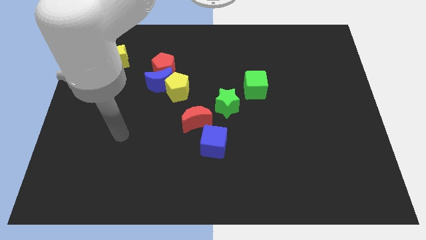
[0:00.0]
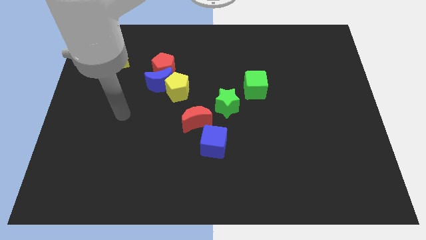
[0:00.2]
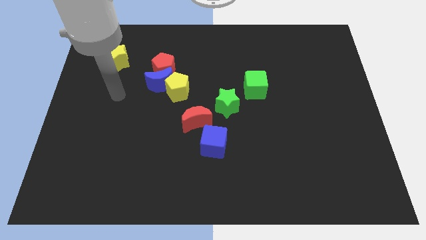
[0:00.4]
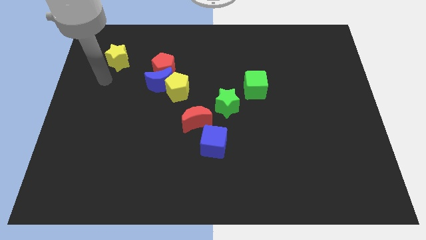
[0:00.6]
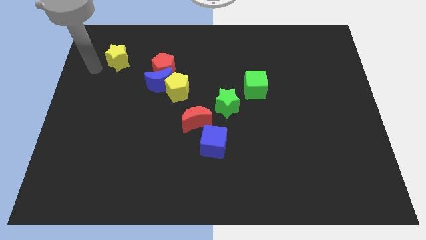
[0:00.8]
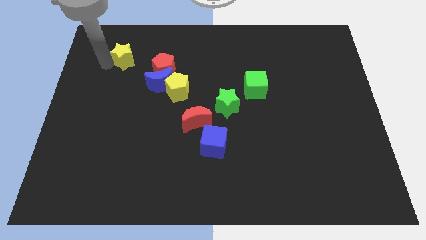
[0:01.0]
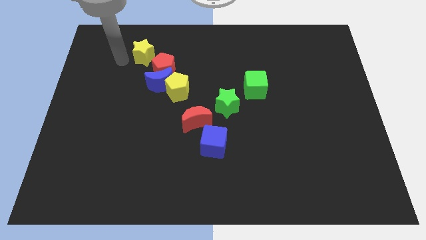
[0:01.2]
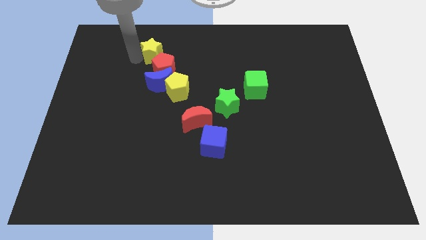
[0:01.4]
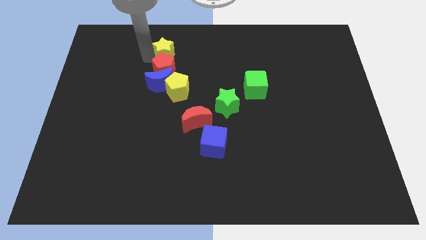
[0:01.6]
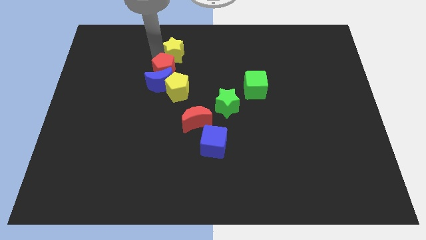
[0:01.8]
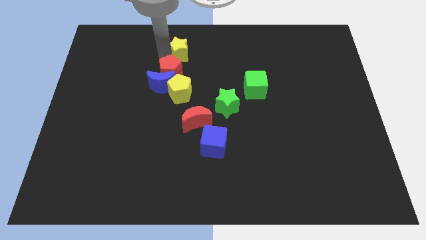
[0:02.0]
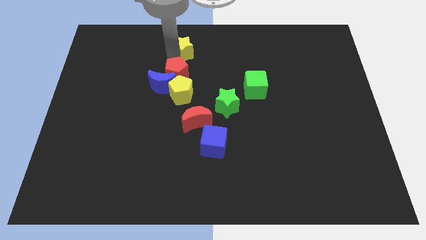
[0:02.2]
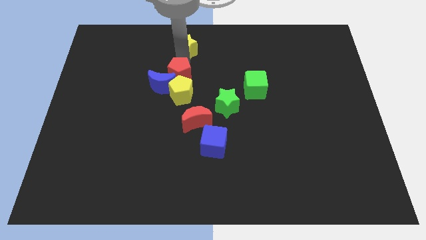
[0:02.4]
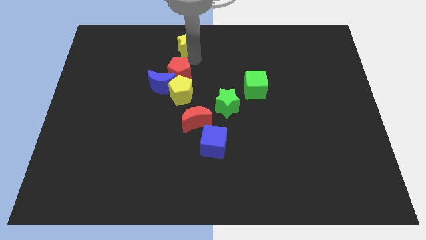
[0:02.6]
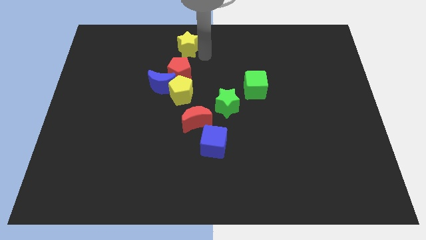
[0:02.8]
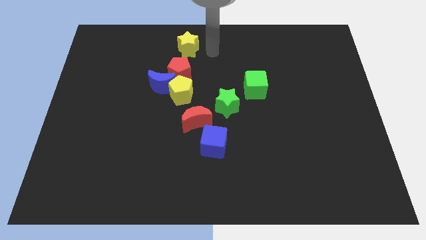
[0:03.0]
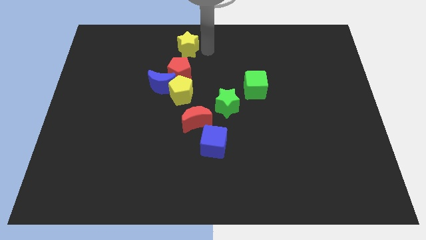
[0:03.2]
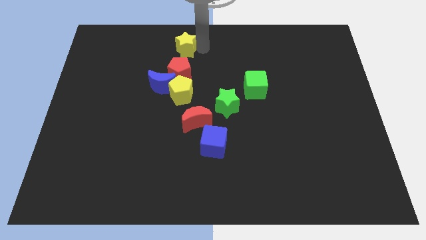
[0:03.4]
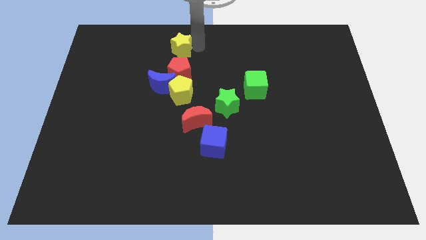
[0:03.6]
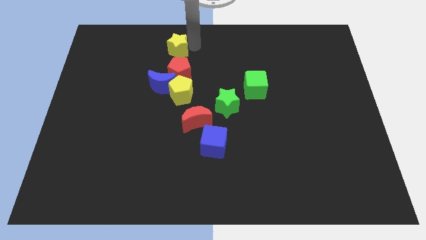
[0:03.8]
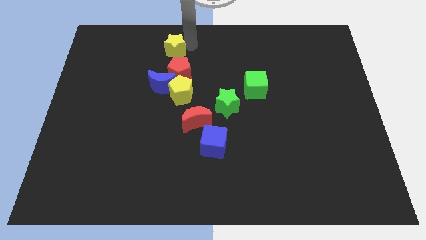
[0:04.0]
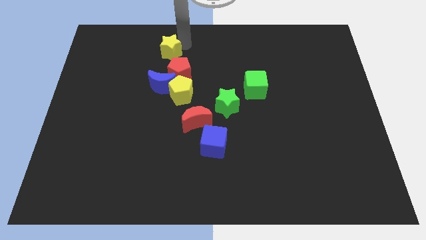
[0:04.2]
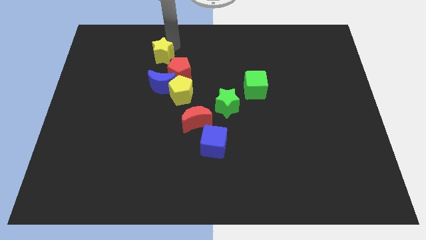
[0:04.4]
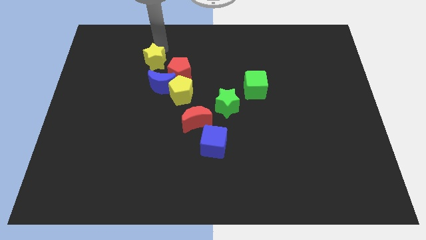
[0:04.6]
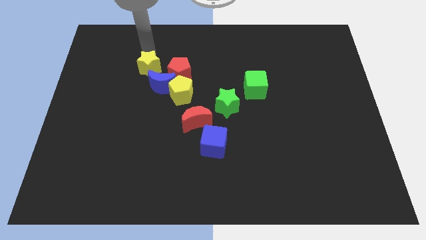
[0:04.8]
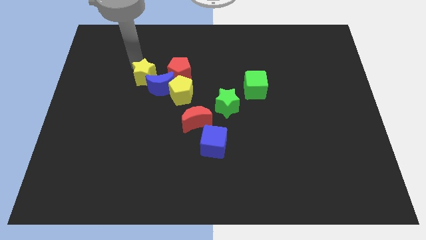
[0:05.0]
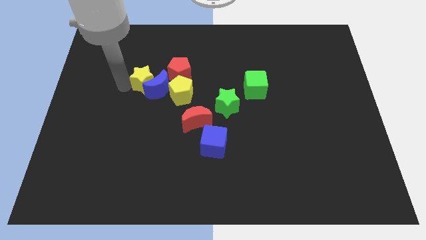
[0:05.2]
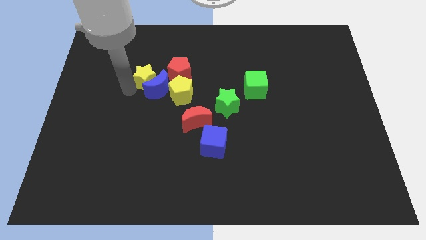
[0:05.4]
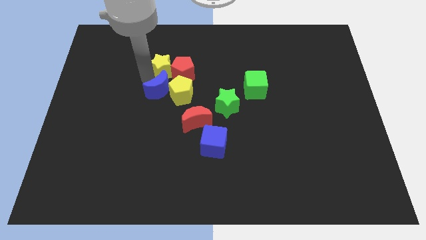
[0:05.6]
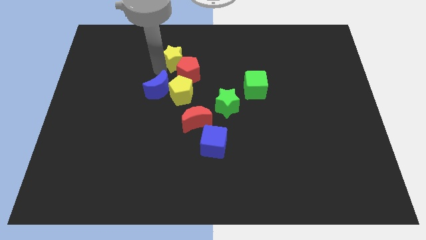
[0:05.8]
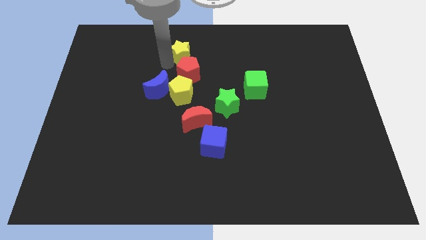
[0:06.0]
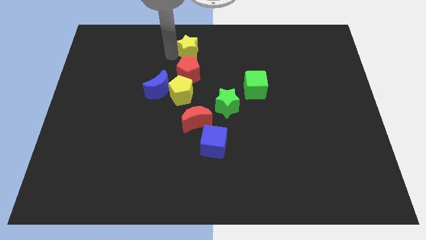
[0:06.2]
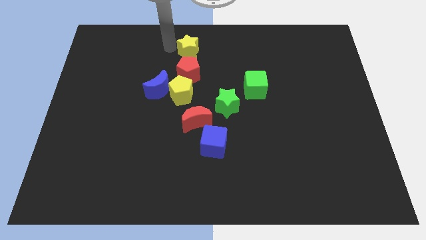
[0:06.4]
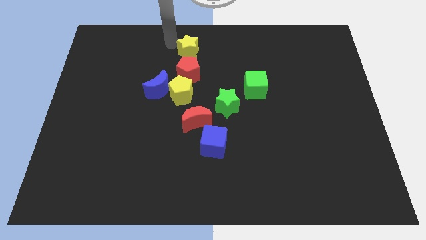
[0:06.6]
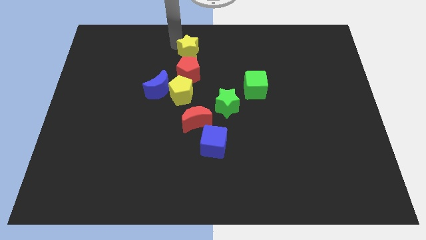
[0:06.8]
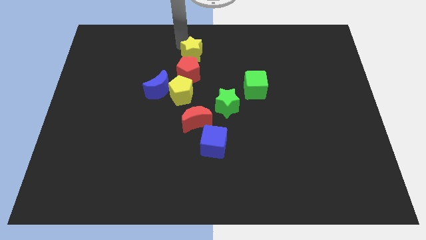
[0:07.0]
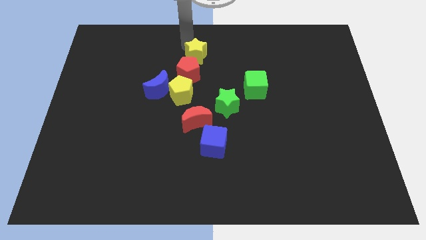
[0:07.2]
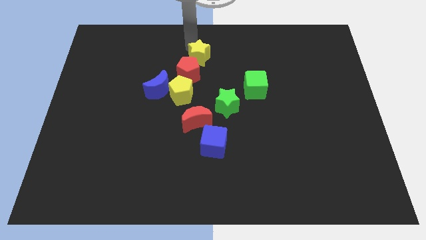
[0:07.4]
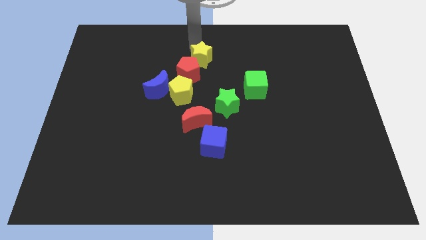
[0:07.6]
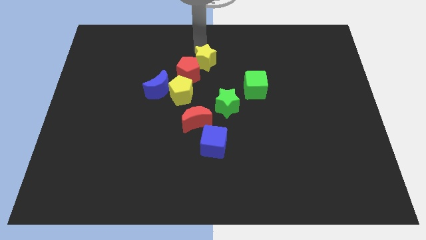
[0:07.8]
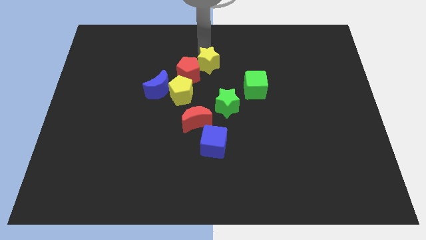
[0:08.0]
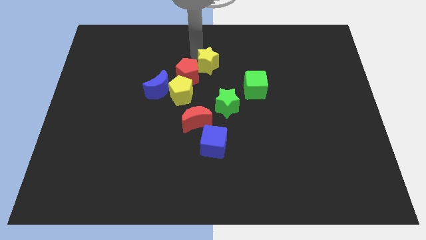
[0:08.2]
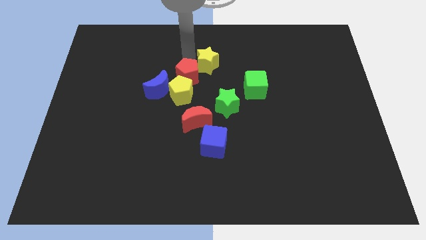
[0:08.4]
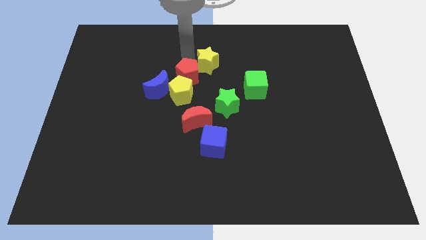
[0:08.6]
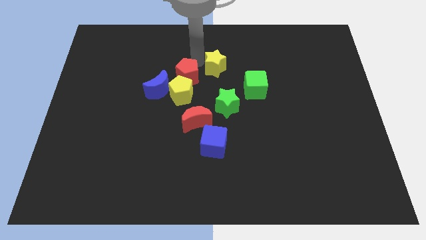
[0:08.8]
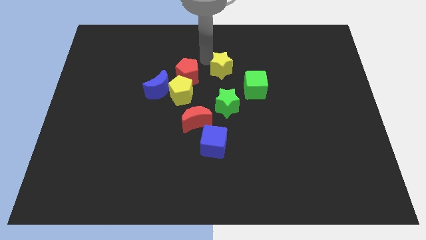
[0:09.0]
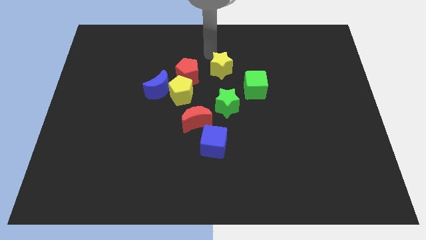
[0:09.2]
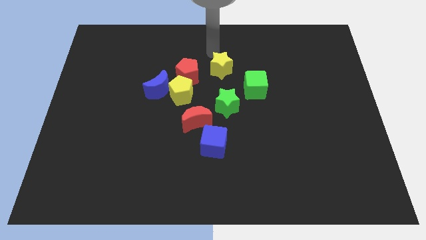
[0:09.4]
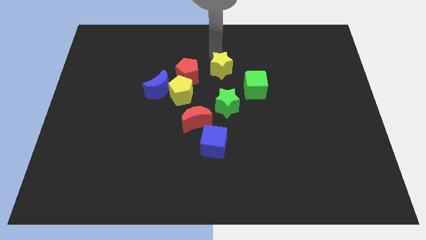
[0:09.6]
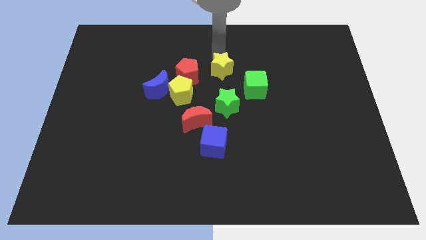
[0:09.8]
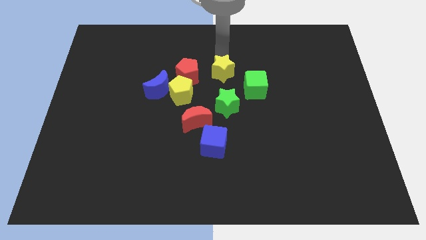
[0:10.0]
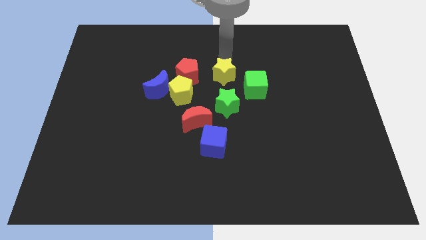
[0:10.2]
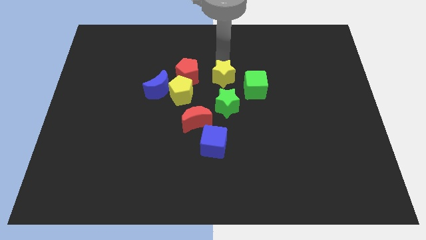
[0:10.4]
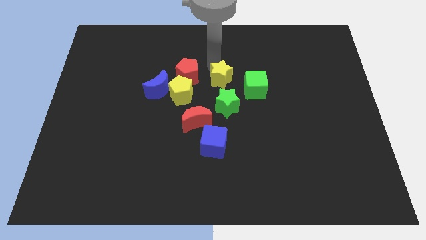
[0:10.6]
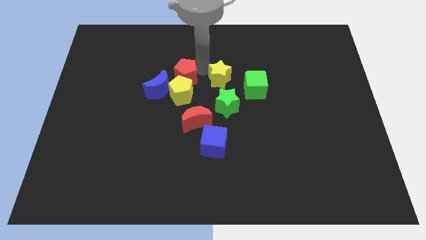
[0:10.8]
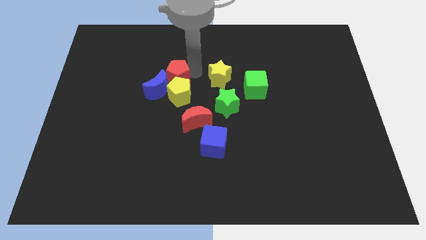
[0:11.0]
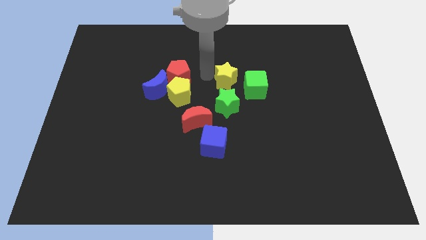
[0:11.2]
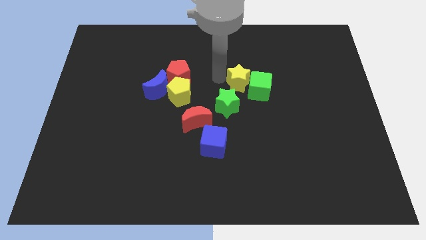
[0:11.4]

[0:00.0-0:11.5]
slide the yellow star towards the green cube

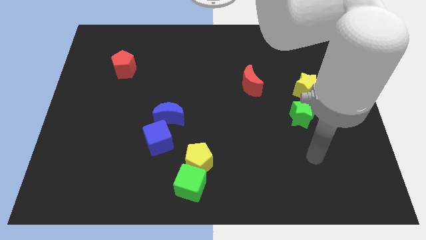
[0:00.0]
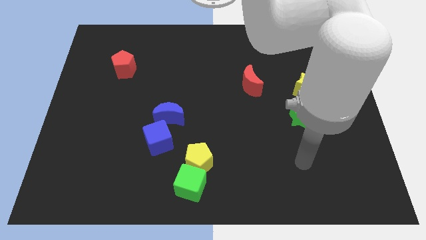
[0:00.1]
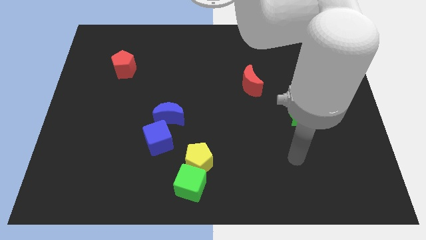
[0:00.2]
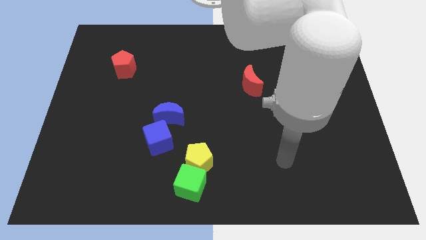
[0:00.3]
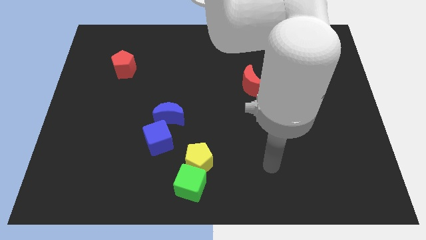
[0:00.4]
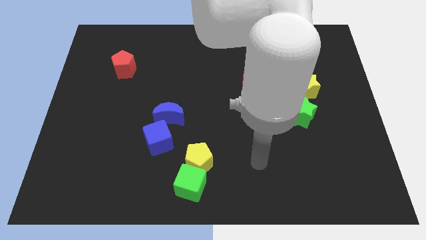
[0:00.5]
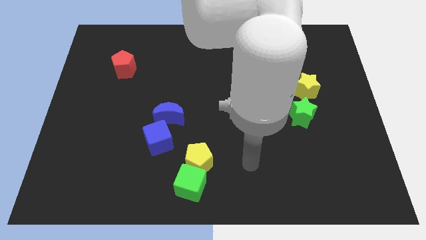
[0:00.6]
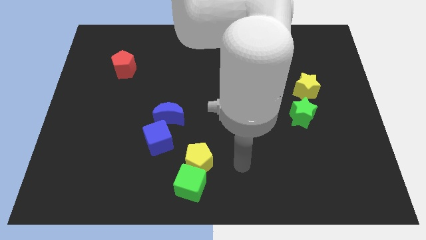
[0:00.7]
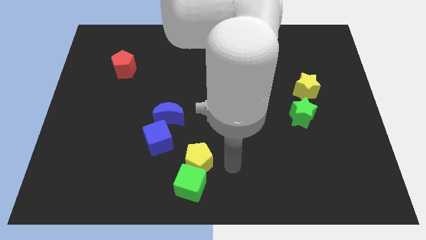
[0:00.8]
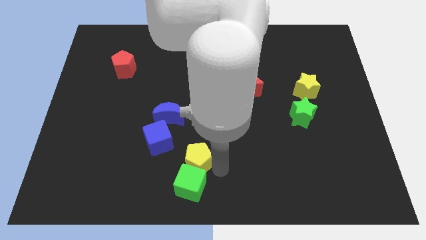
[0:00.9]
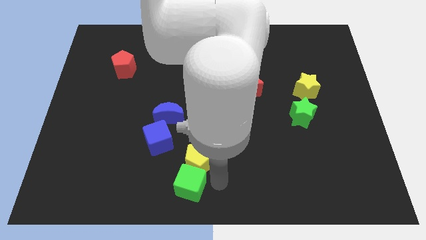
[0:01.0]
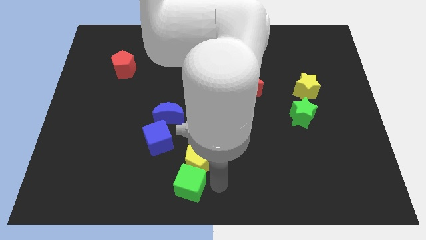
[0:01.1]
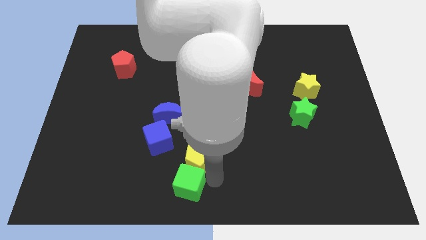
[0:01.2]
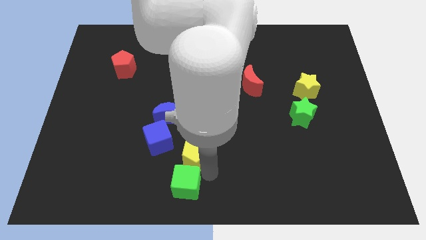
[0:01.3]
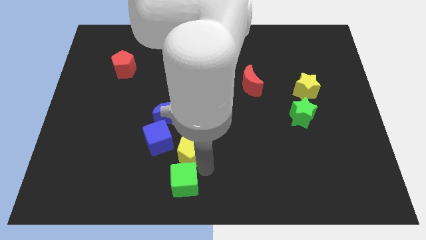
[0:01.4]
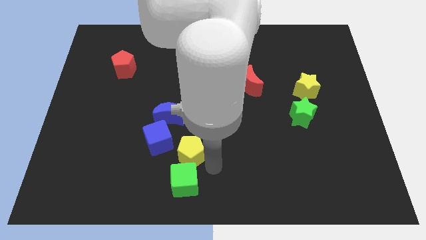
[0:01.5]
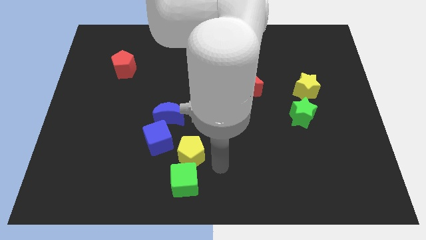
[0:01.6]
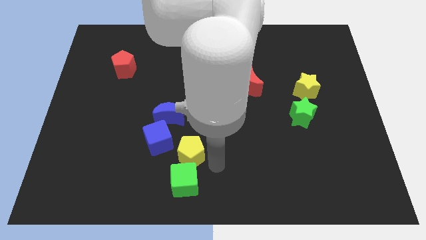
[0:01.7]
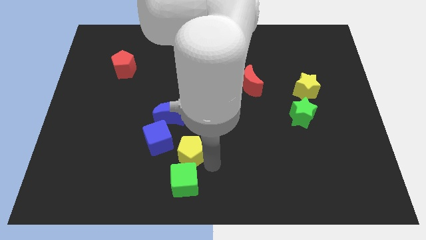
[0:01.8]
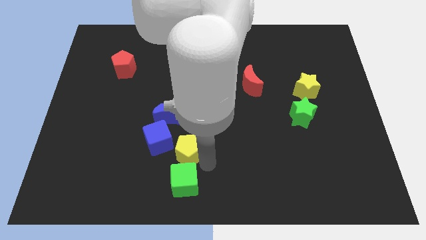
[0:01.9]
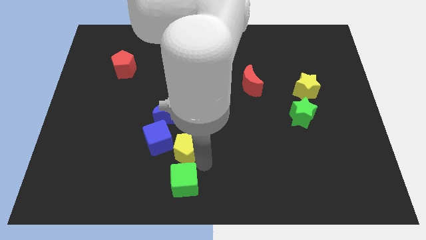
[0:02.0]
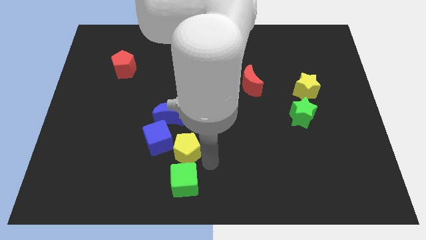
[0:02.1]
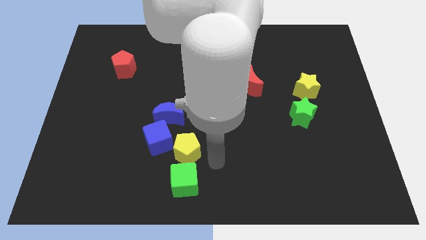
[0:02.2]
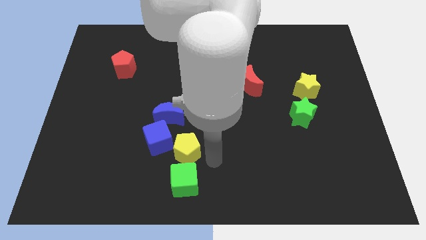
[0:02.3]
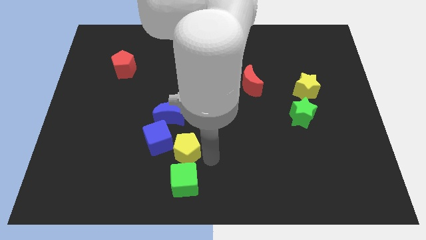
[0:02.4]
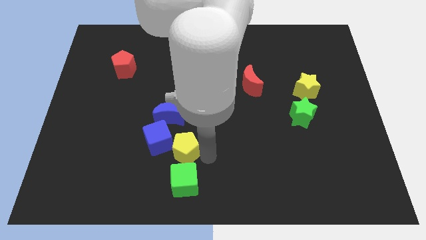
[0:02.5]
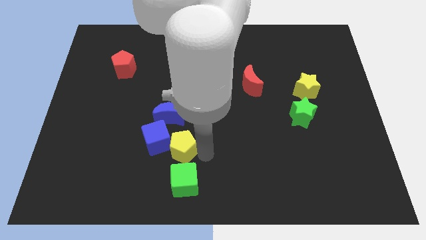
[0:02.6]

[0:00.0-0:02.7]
move the yellow pentagon to the blue cube
